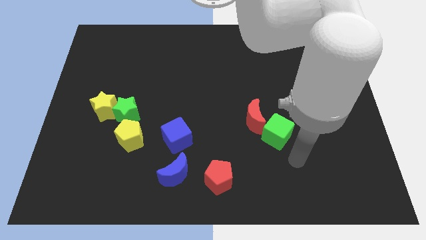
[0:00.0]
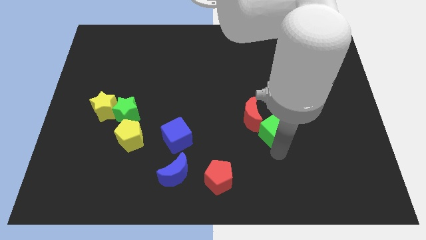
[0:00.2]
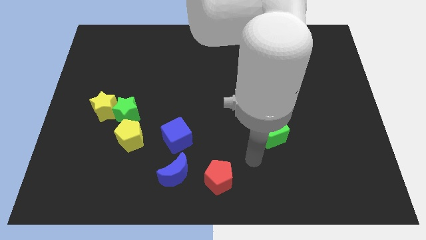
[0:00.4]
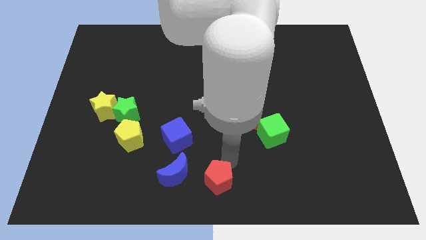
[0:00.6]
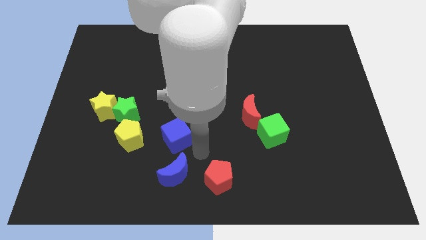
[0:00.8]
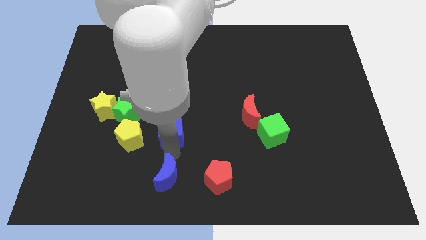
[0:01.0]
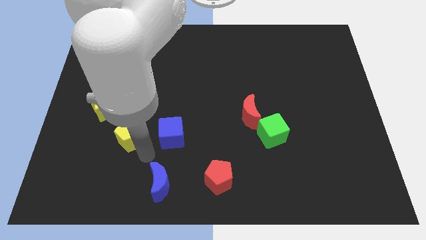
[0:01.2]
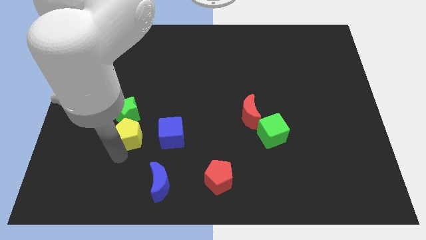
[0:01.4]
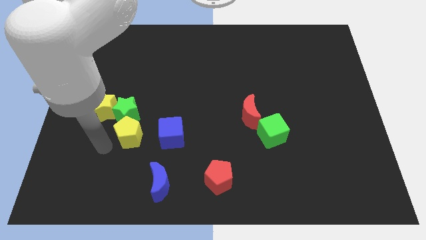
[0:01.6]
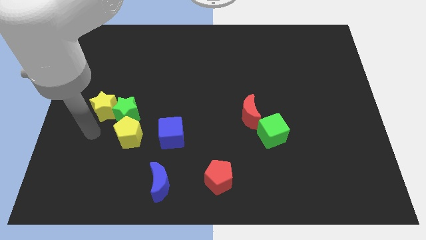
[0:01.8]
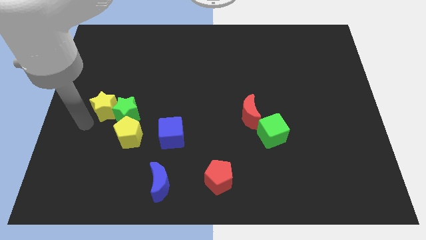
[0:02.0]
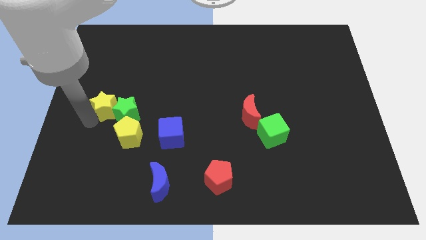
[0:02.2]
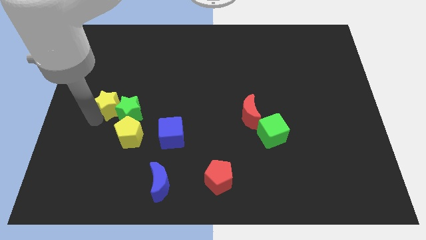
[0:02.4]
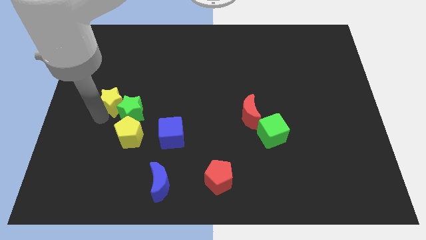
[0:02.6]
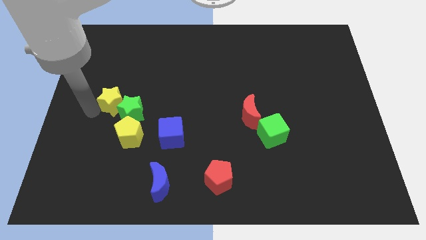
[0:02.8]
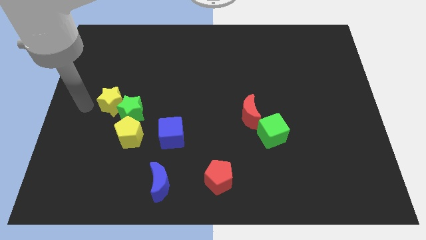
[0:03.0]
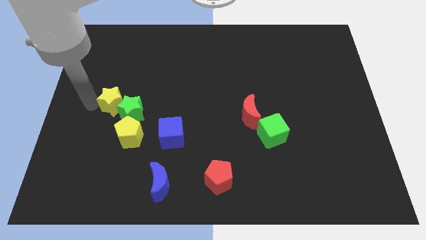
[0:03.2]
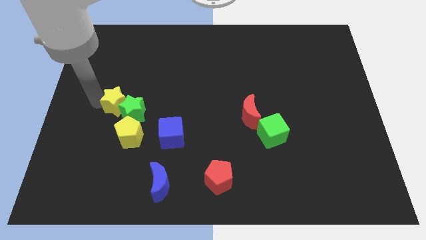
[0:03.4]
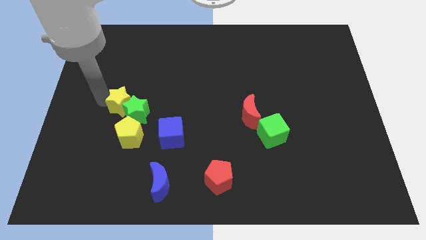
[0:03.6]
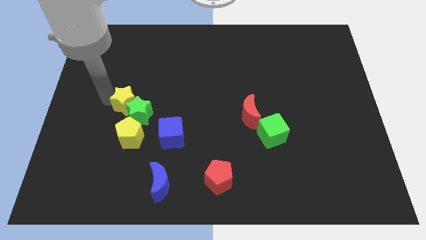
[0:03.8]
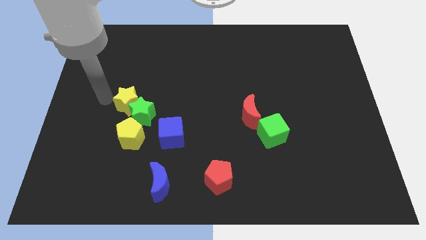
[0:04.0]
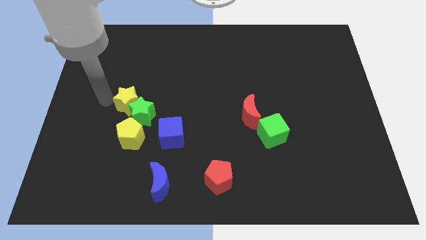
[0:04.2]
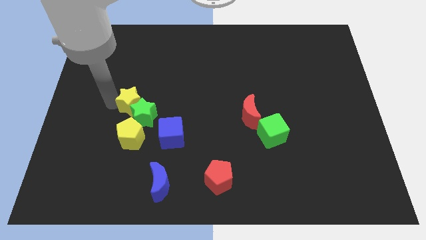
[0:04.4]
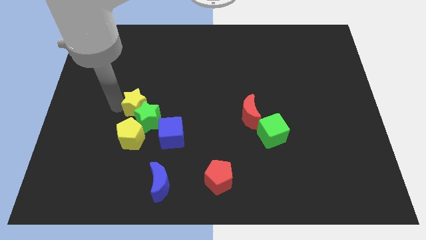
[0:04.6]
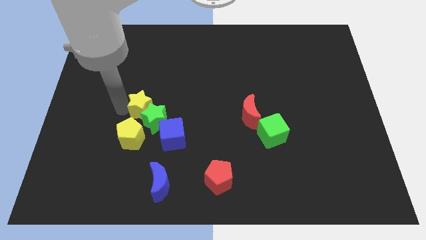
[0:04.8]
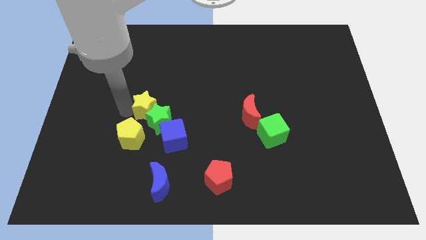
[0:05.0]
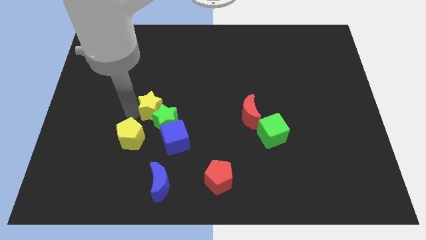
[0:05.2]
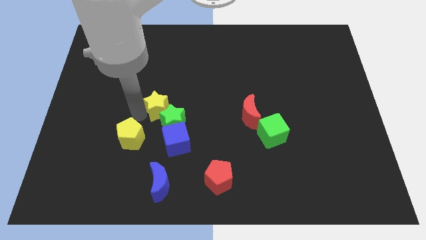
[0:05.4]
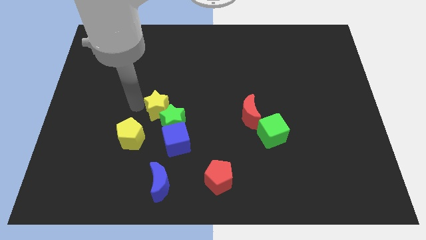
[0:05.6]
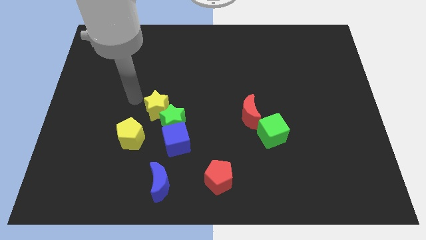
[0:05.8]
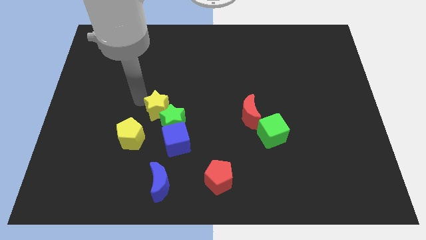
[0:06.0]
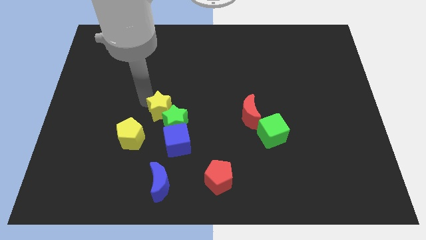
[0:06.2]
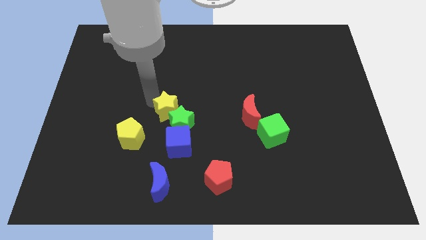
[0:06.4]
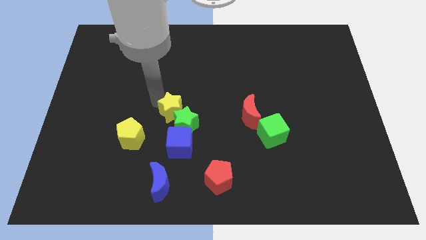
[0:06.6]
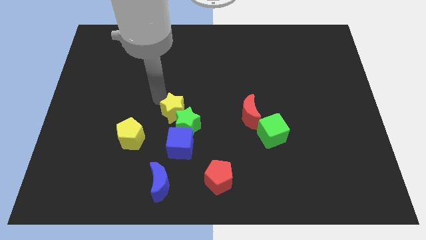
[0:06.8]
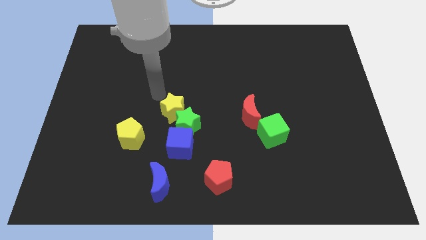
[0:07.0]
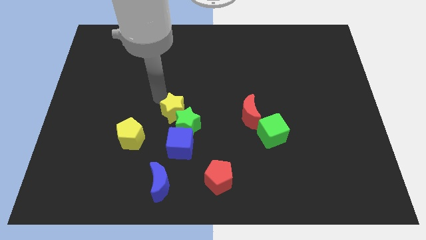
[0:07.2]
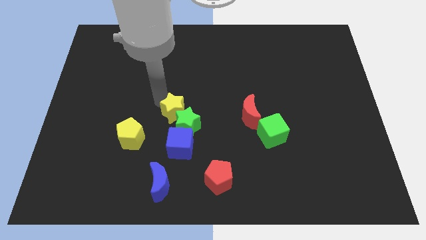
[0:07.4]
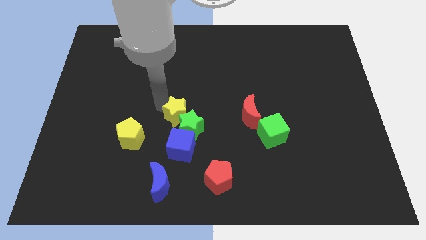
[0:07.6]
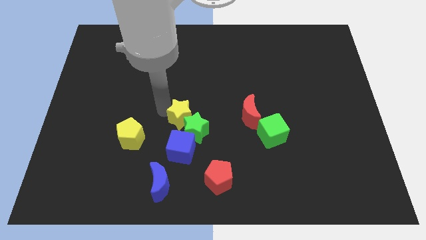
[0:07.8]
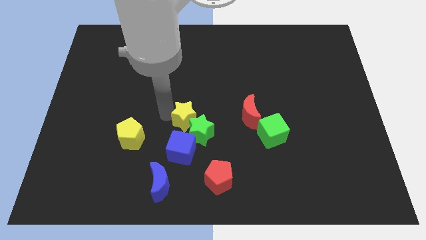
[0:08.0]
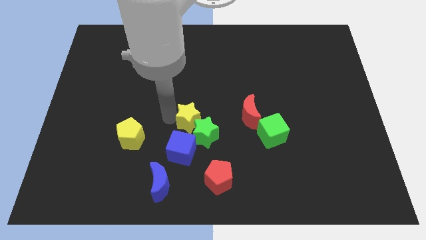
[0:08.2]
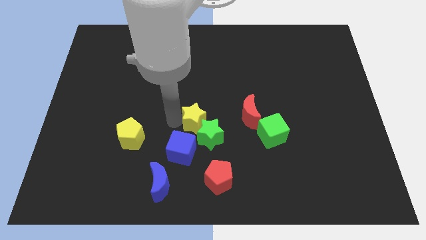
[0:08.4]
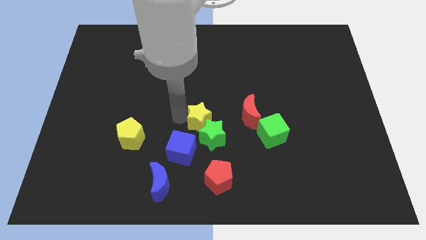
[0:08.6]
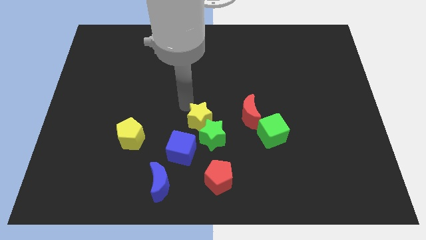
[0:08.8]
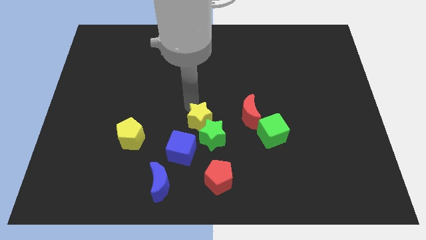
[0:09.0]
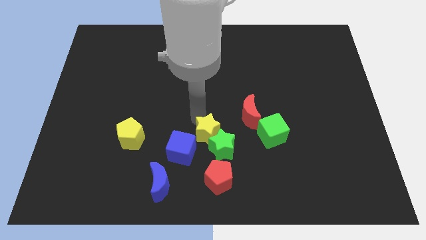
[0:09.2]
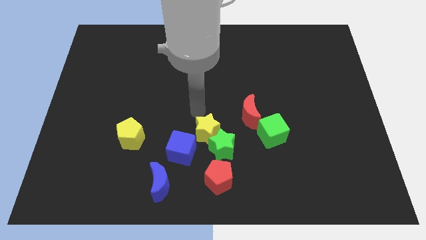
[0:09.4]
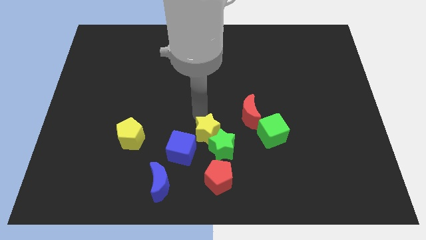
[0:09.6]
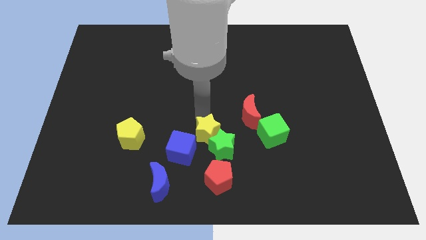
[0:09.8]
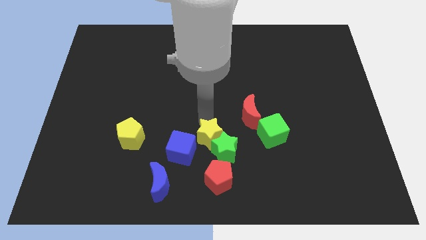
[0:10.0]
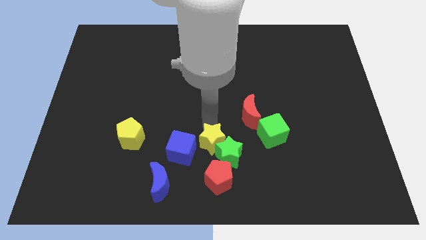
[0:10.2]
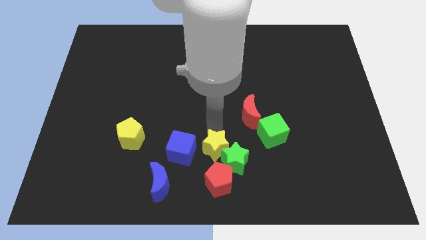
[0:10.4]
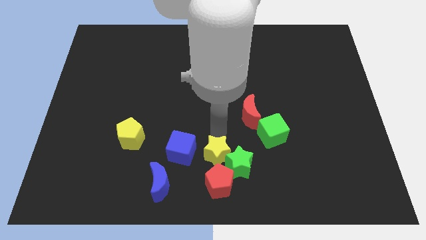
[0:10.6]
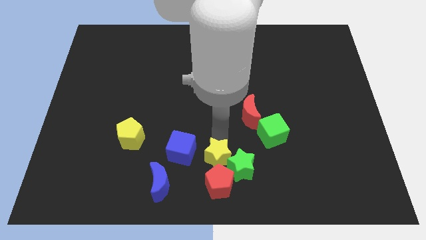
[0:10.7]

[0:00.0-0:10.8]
push the yellow star close to the red pentagon

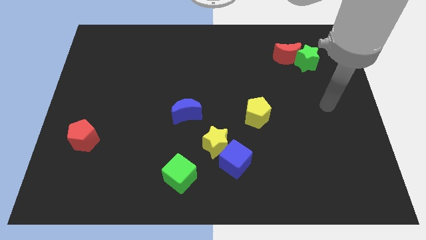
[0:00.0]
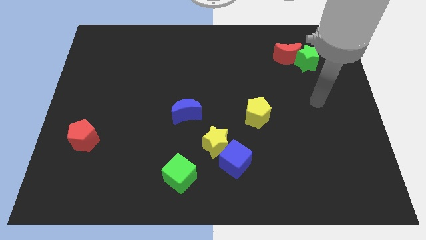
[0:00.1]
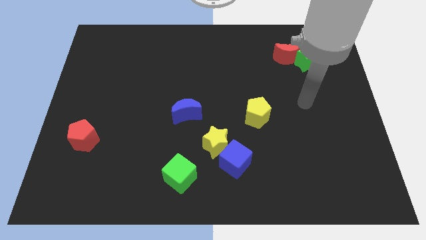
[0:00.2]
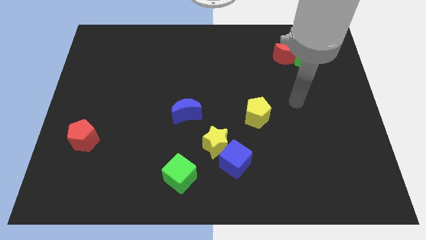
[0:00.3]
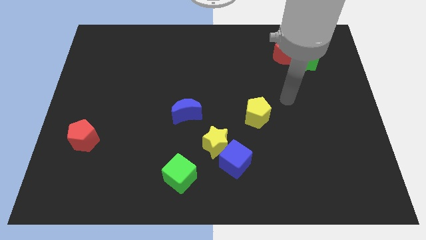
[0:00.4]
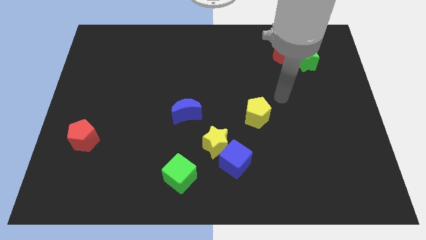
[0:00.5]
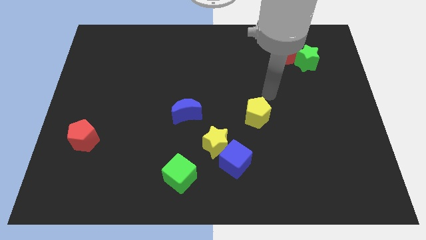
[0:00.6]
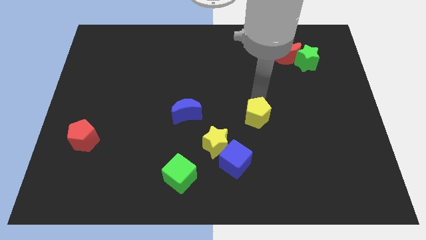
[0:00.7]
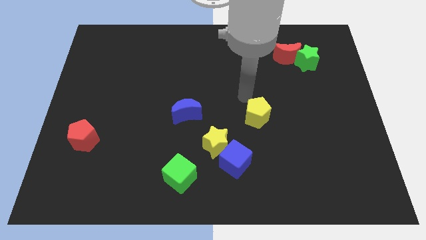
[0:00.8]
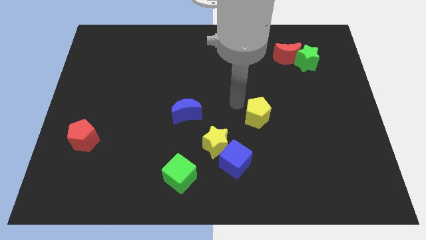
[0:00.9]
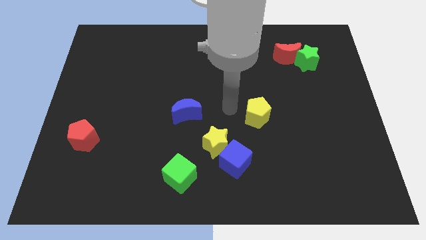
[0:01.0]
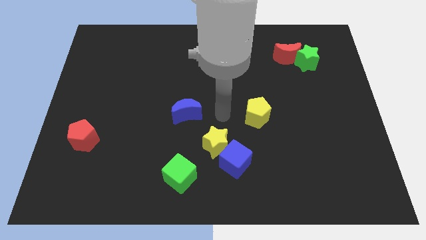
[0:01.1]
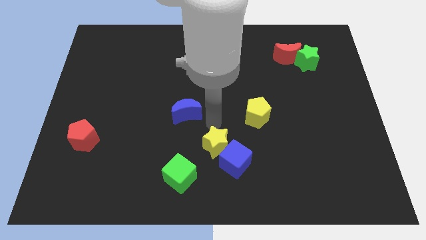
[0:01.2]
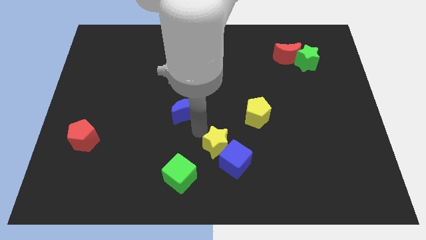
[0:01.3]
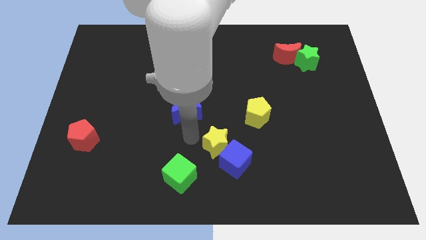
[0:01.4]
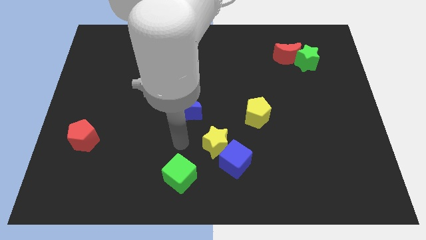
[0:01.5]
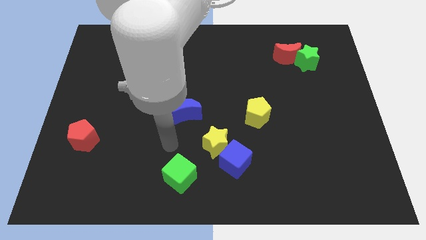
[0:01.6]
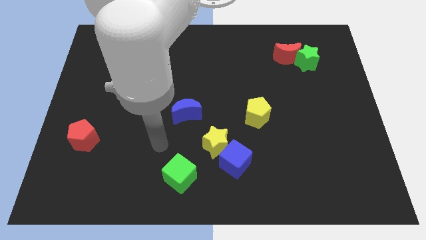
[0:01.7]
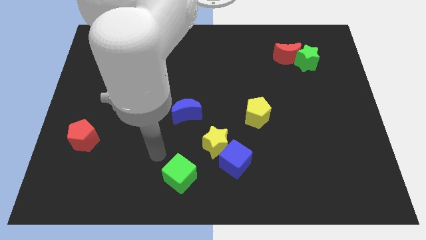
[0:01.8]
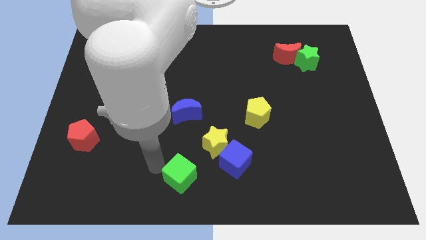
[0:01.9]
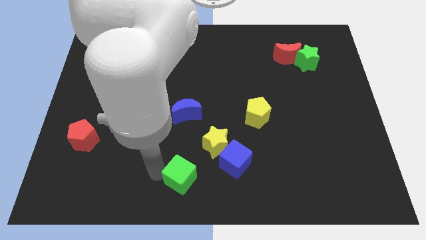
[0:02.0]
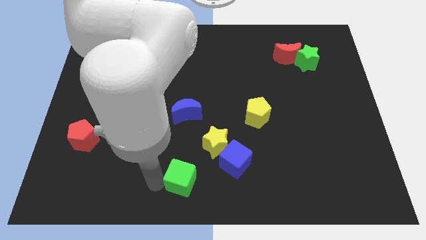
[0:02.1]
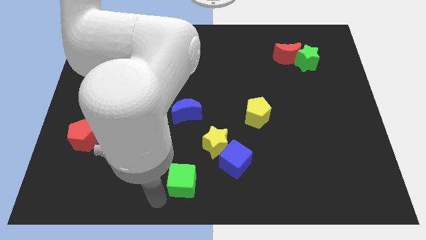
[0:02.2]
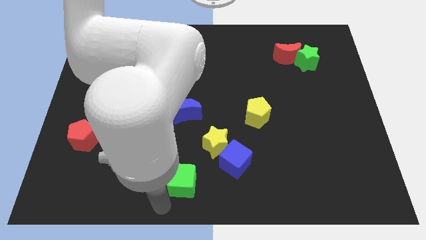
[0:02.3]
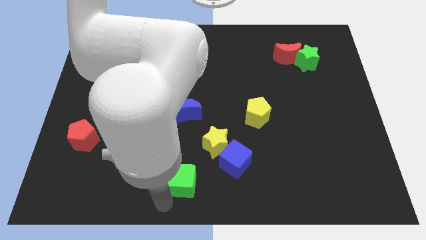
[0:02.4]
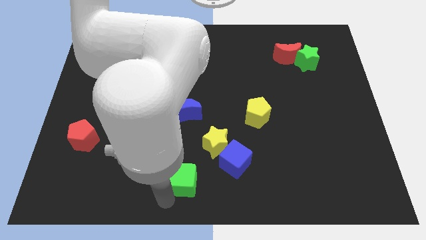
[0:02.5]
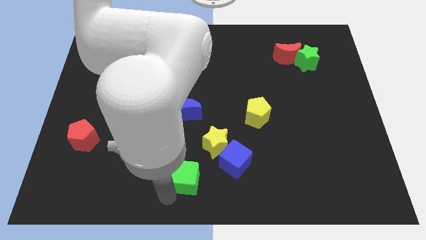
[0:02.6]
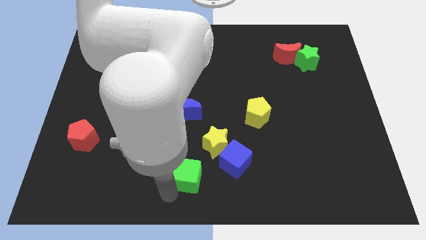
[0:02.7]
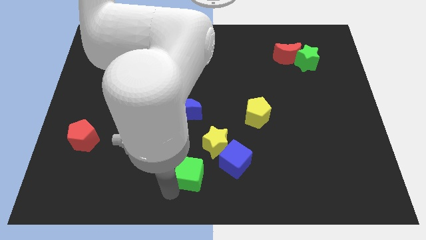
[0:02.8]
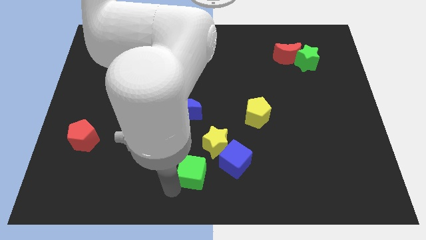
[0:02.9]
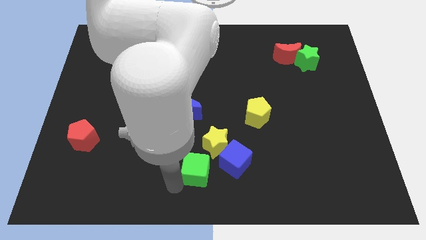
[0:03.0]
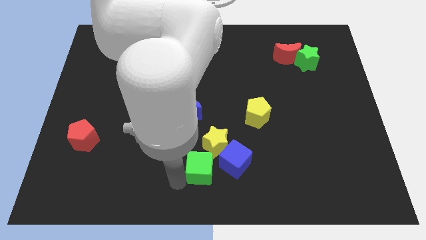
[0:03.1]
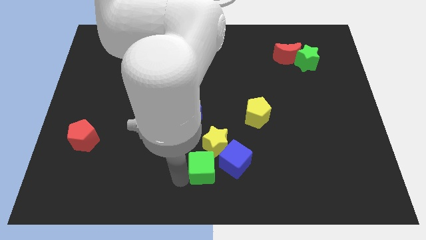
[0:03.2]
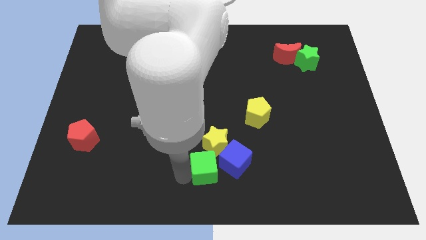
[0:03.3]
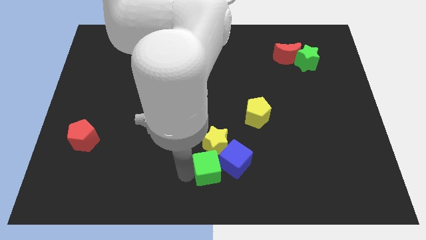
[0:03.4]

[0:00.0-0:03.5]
slide the green cube towards the yellow star
